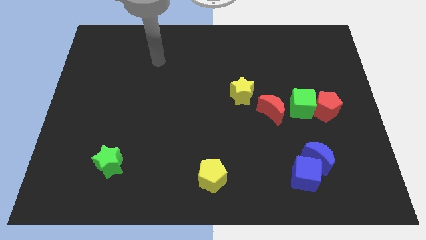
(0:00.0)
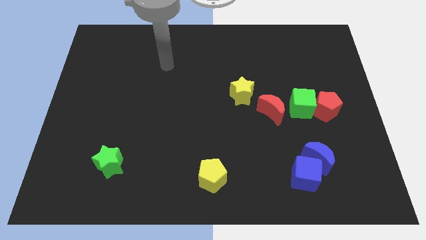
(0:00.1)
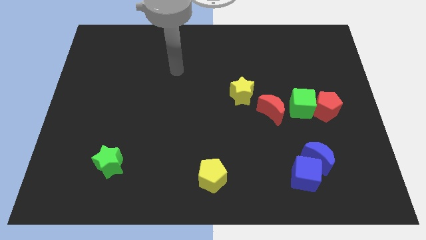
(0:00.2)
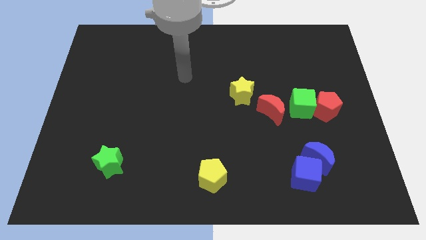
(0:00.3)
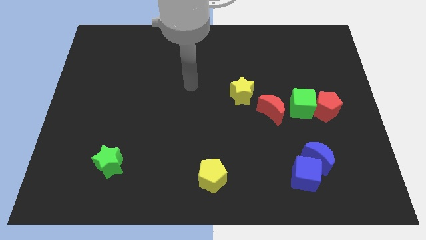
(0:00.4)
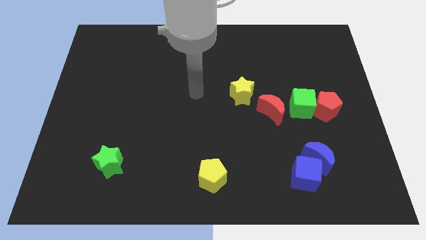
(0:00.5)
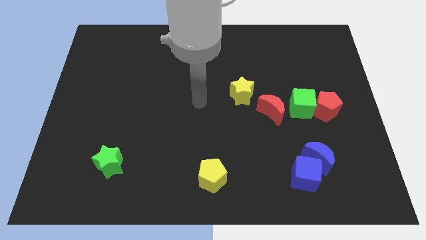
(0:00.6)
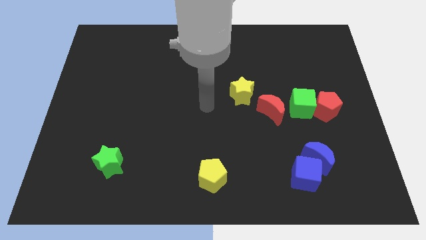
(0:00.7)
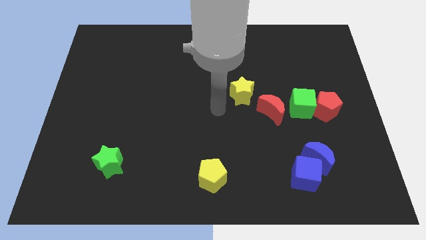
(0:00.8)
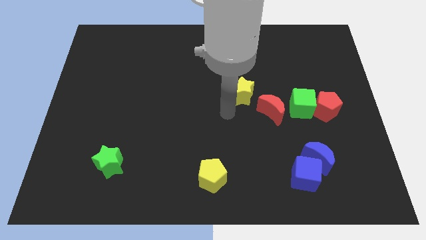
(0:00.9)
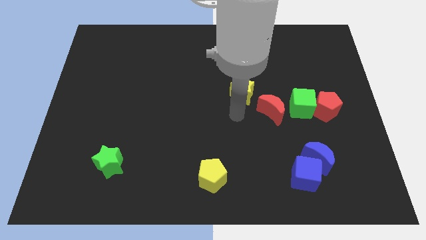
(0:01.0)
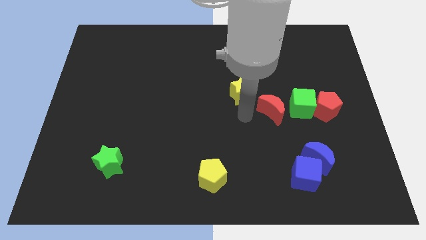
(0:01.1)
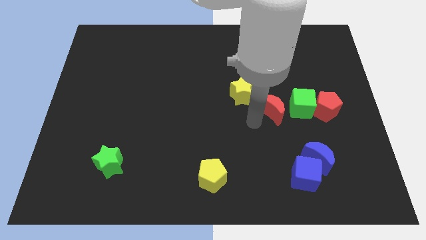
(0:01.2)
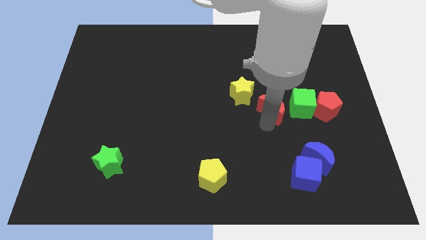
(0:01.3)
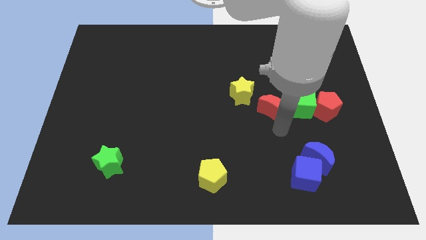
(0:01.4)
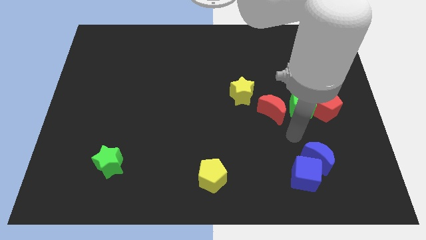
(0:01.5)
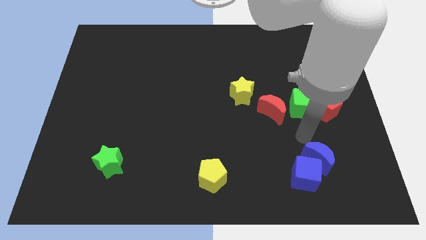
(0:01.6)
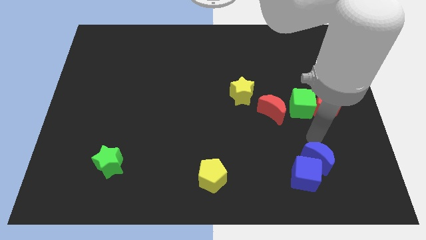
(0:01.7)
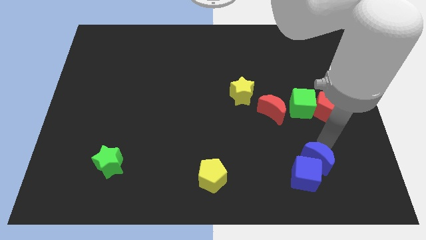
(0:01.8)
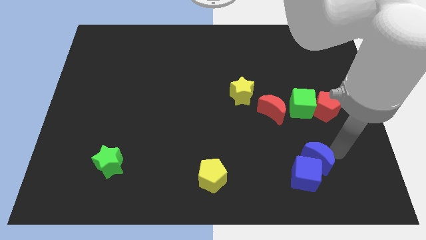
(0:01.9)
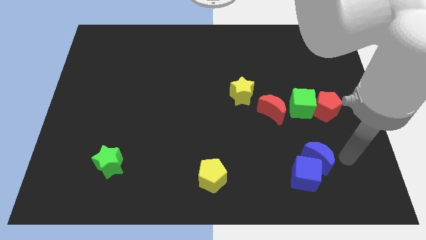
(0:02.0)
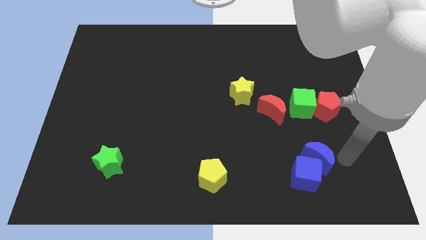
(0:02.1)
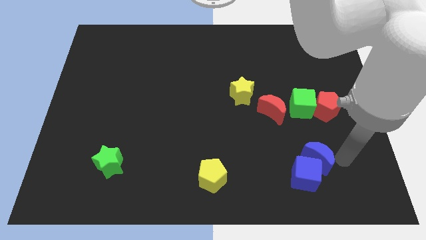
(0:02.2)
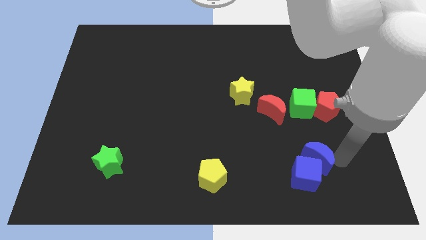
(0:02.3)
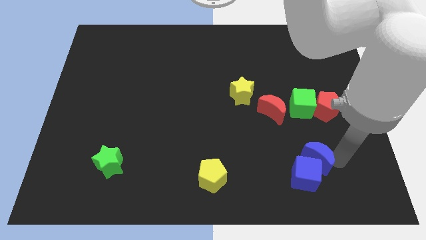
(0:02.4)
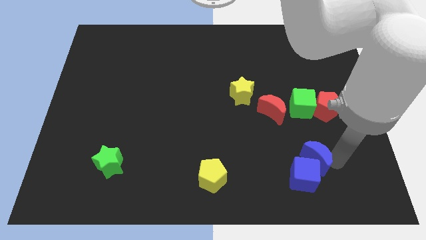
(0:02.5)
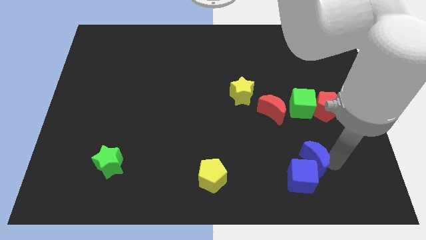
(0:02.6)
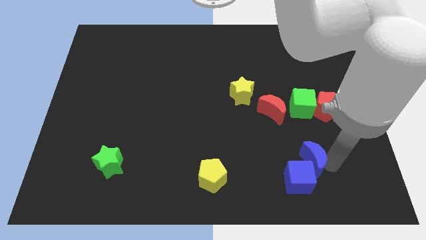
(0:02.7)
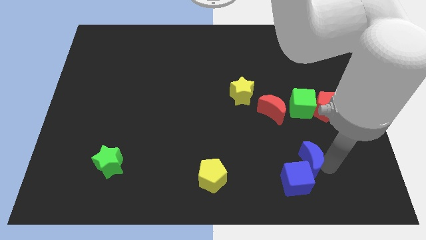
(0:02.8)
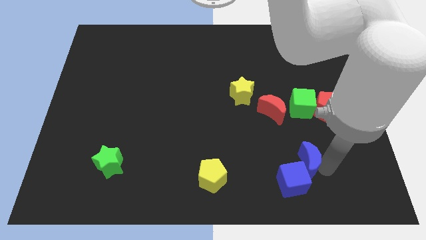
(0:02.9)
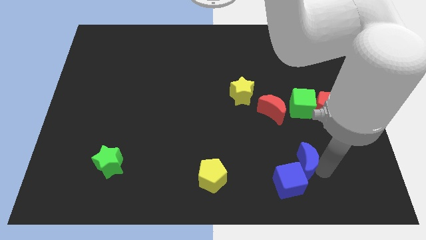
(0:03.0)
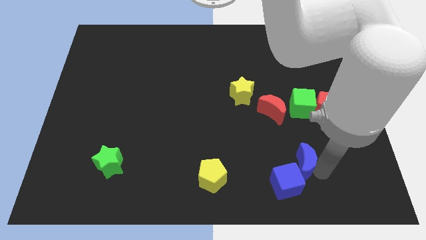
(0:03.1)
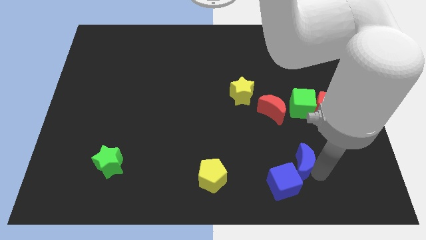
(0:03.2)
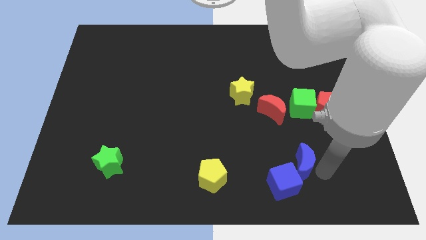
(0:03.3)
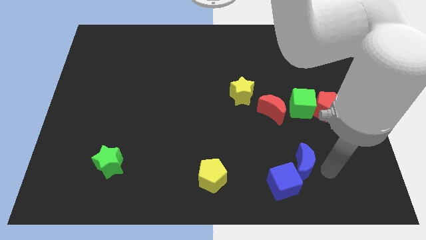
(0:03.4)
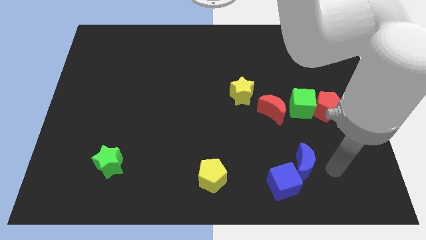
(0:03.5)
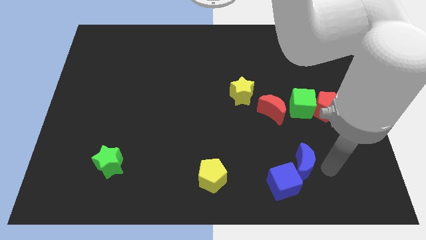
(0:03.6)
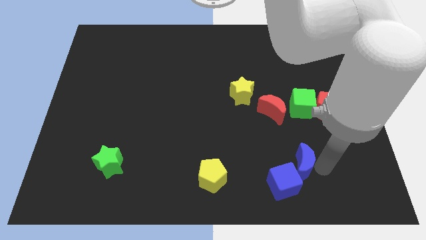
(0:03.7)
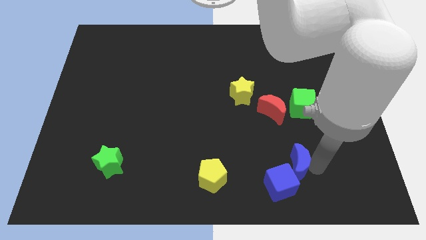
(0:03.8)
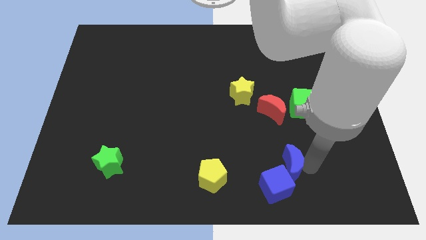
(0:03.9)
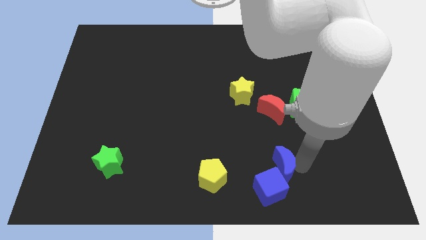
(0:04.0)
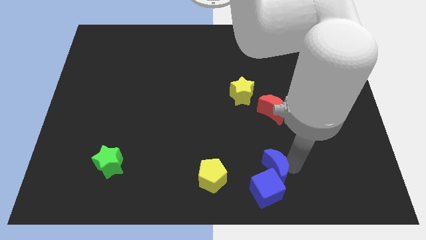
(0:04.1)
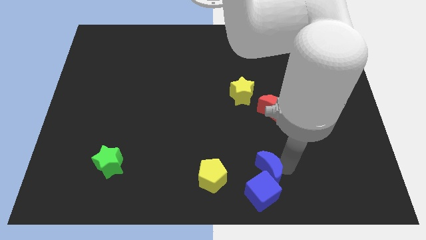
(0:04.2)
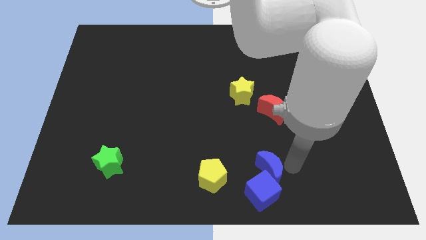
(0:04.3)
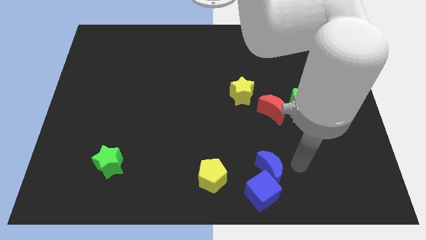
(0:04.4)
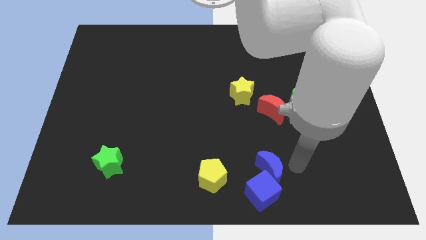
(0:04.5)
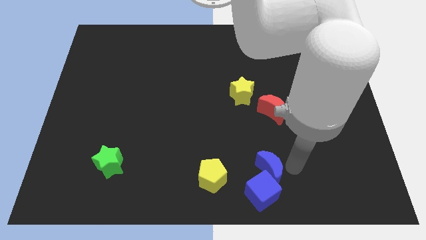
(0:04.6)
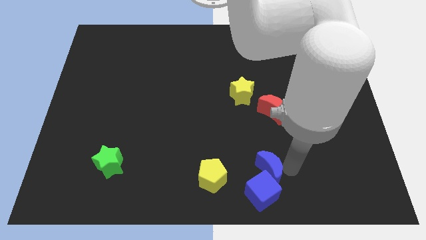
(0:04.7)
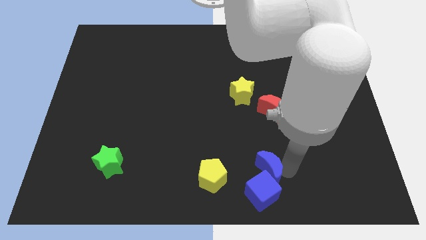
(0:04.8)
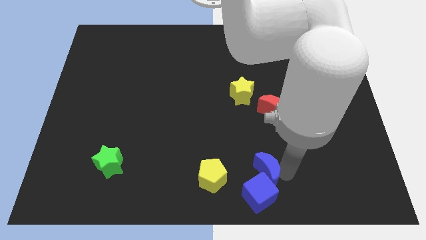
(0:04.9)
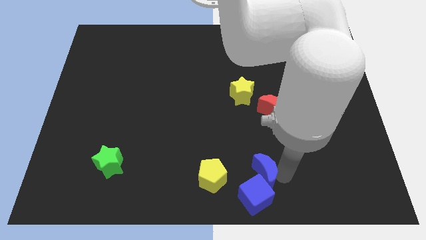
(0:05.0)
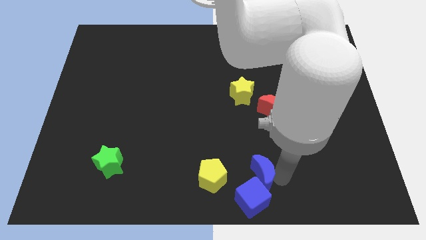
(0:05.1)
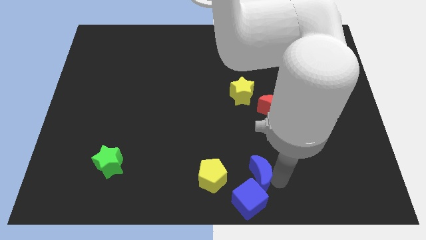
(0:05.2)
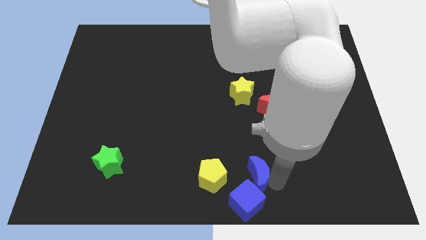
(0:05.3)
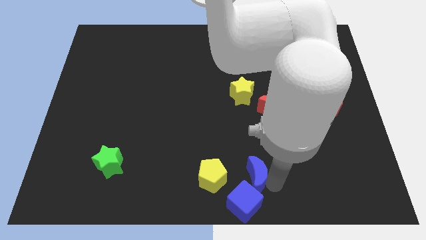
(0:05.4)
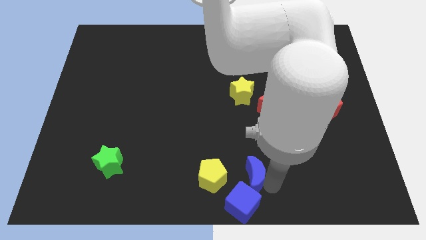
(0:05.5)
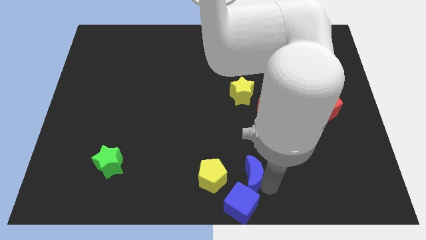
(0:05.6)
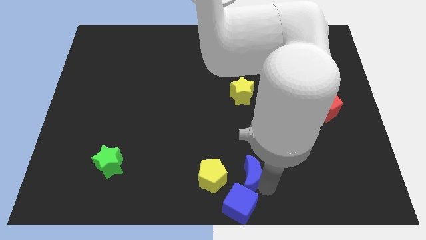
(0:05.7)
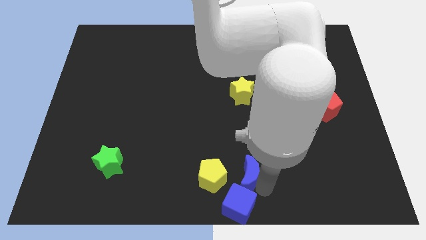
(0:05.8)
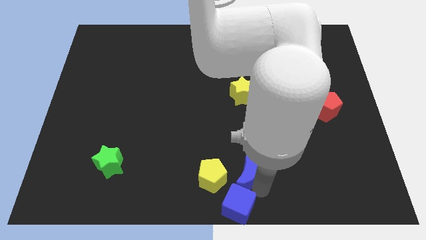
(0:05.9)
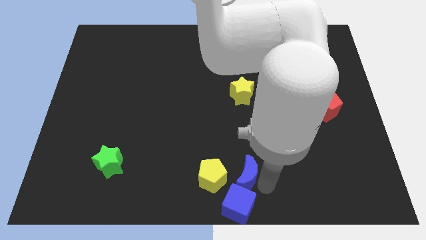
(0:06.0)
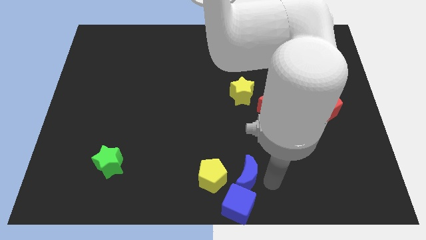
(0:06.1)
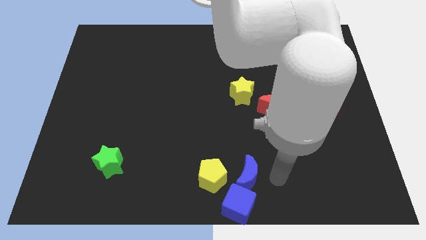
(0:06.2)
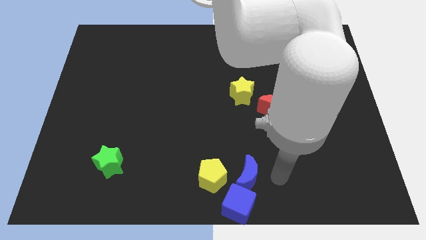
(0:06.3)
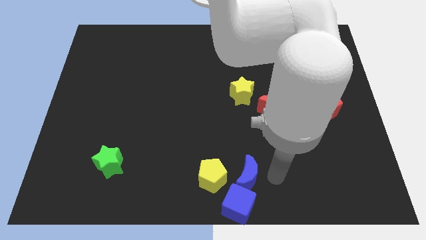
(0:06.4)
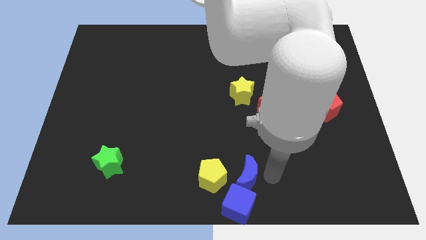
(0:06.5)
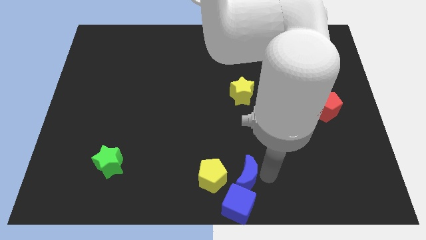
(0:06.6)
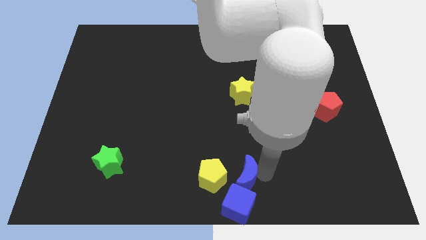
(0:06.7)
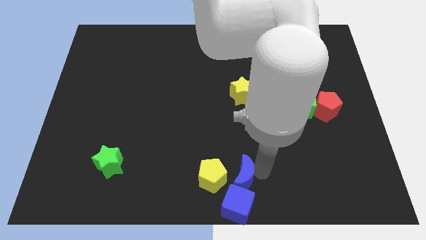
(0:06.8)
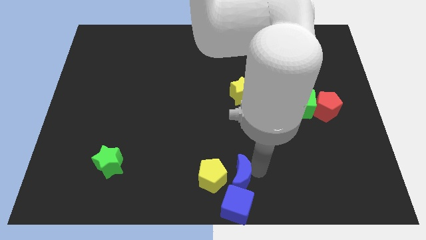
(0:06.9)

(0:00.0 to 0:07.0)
push the blue moon close to the yellow pentagon
